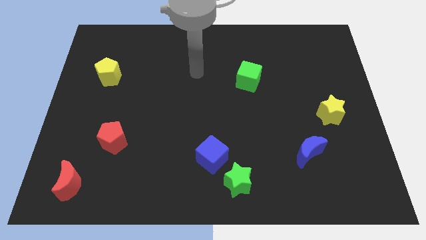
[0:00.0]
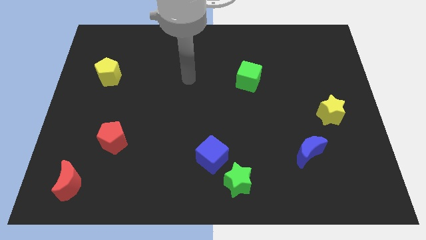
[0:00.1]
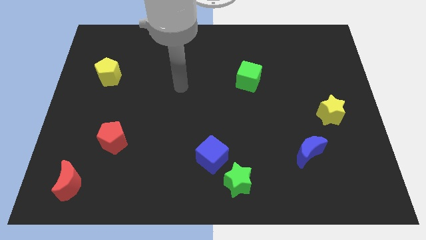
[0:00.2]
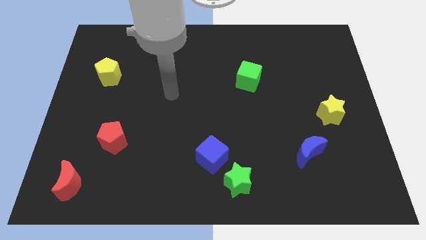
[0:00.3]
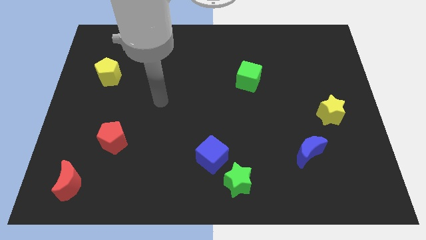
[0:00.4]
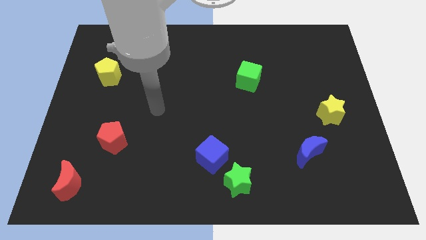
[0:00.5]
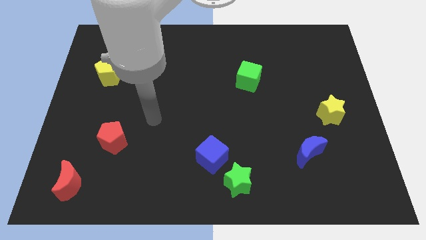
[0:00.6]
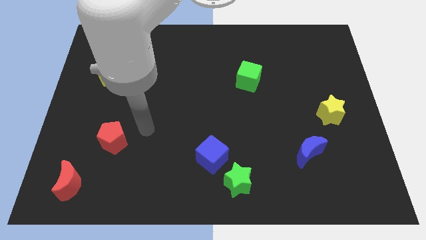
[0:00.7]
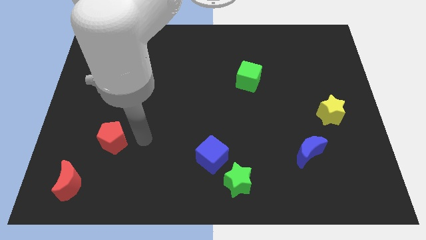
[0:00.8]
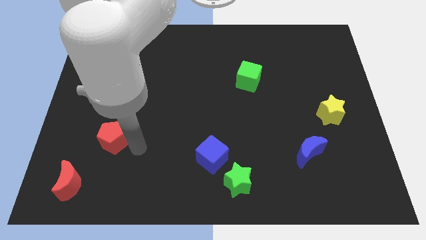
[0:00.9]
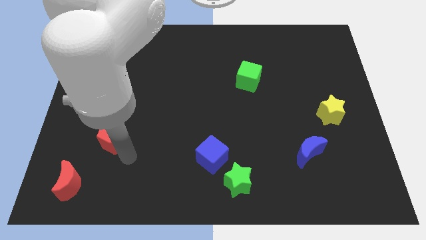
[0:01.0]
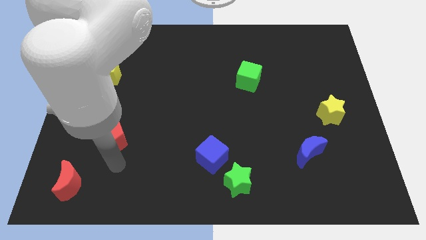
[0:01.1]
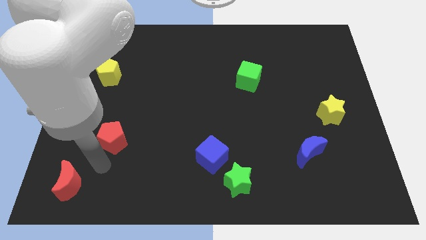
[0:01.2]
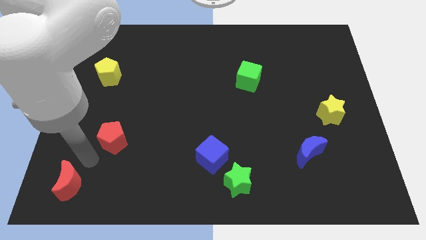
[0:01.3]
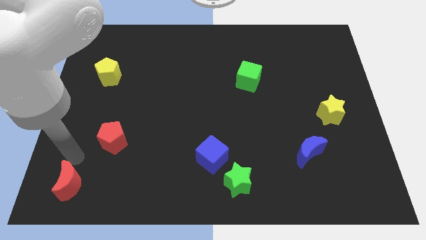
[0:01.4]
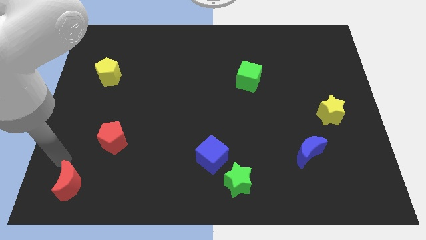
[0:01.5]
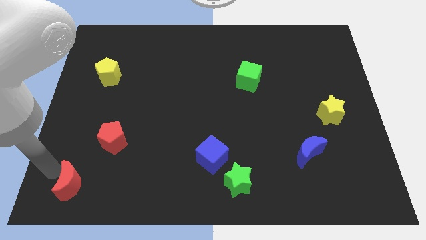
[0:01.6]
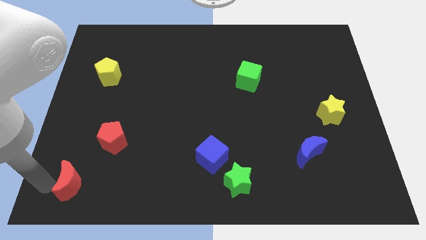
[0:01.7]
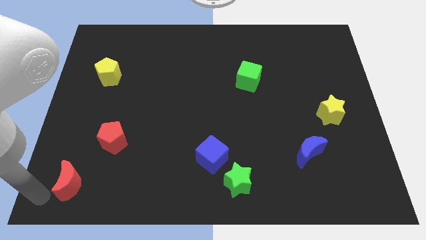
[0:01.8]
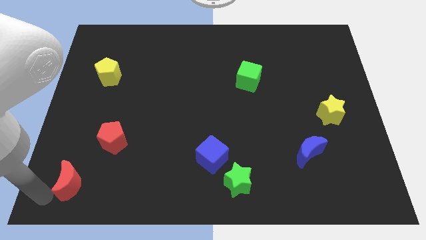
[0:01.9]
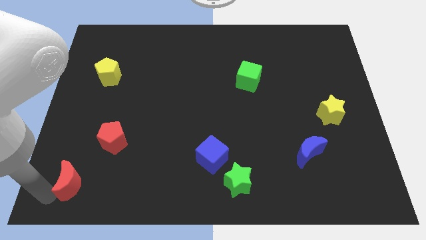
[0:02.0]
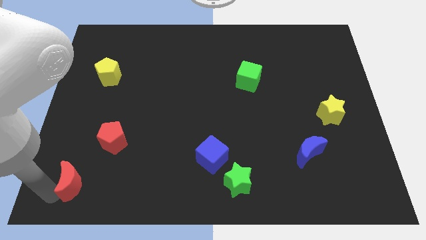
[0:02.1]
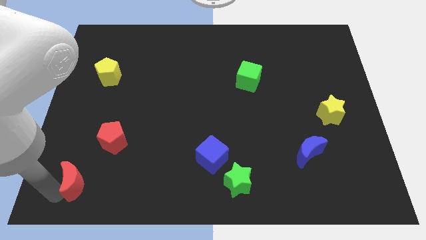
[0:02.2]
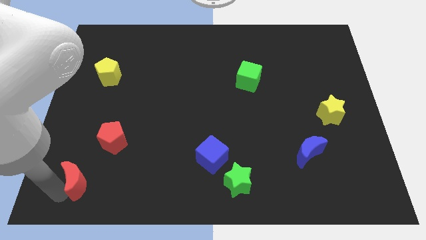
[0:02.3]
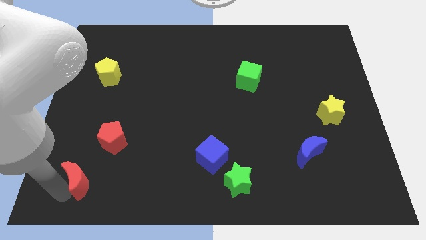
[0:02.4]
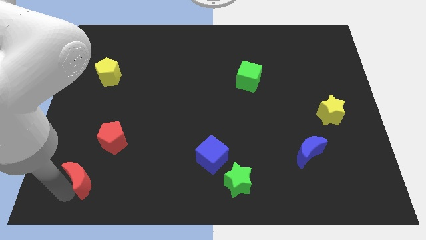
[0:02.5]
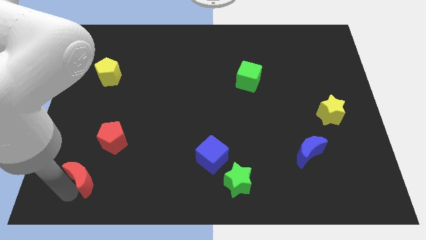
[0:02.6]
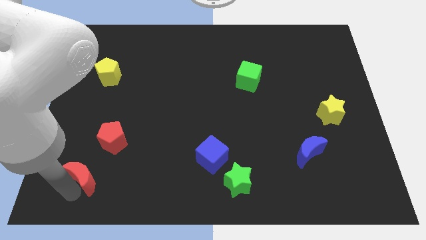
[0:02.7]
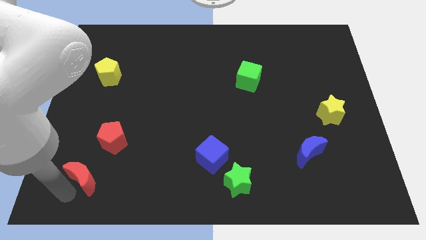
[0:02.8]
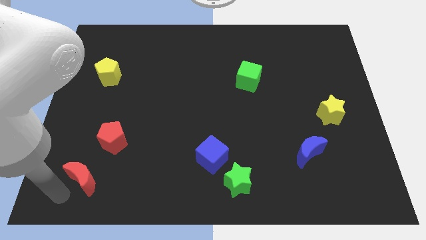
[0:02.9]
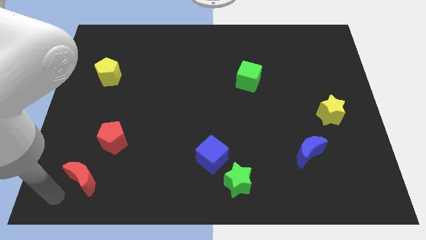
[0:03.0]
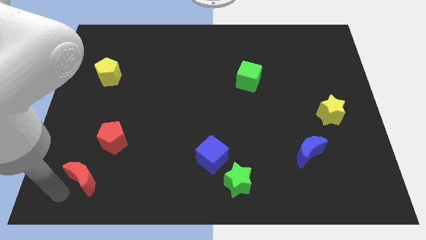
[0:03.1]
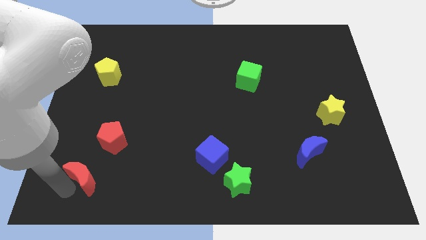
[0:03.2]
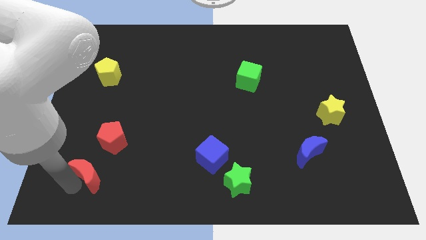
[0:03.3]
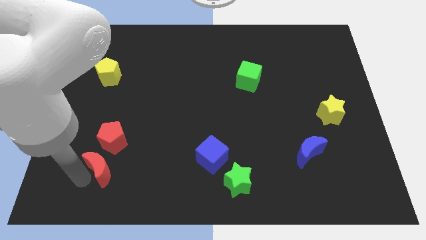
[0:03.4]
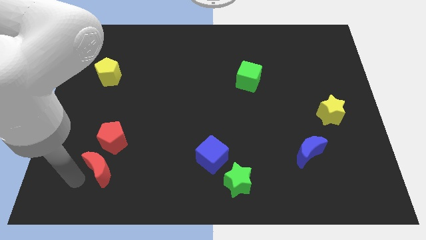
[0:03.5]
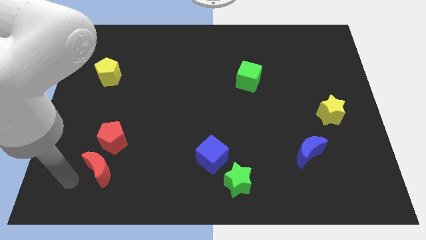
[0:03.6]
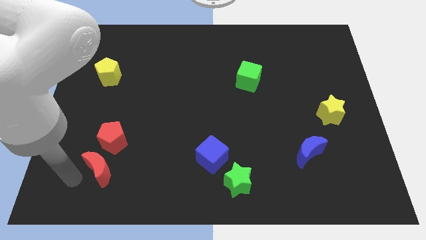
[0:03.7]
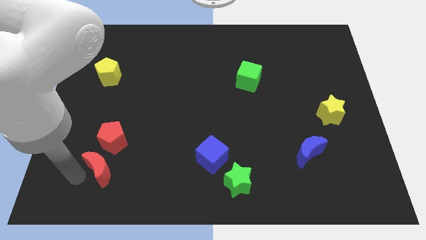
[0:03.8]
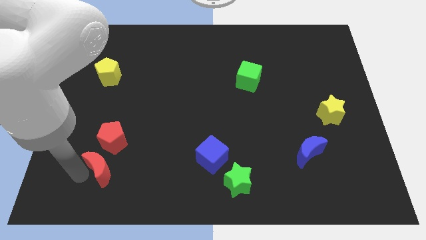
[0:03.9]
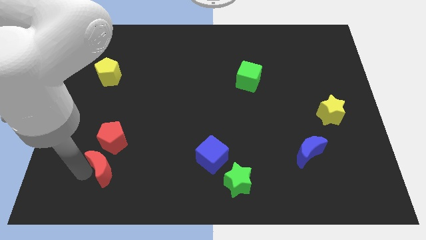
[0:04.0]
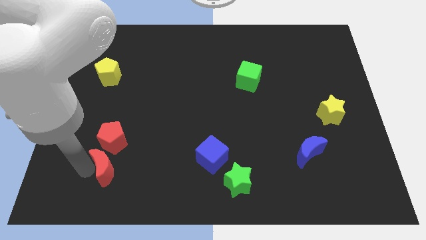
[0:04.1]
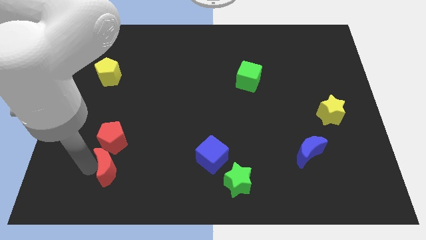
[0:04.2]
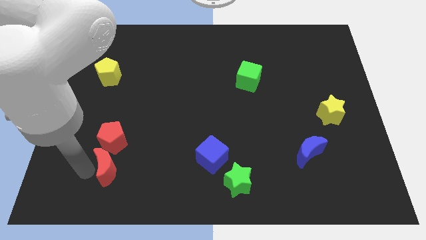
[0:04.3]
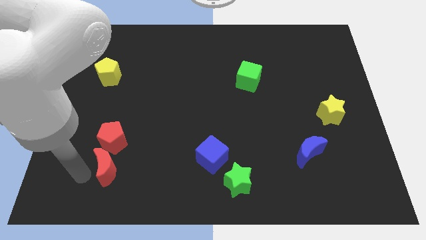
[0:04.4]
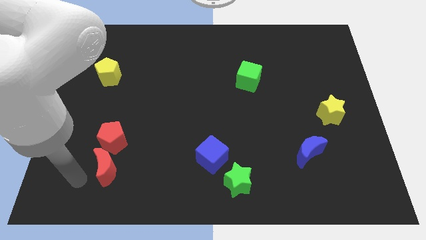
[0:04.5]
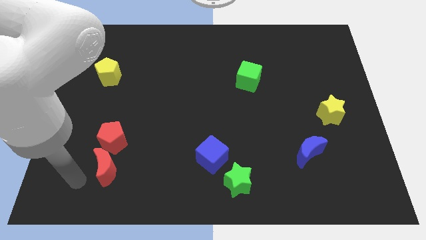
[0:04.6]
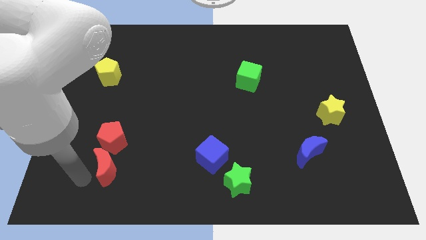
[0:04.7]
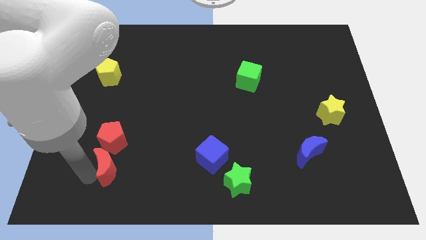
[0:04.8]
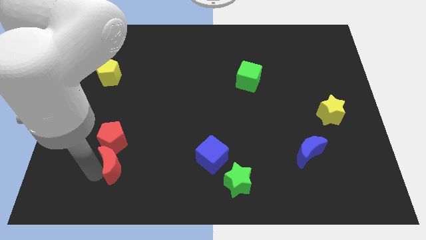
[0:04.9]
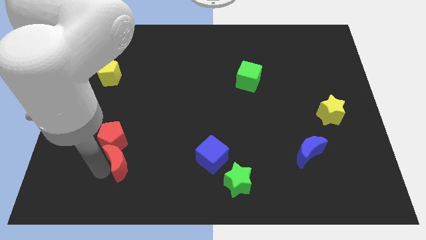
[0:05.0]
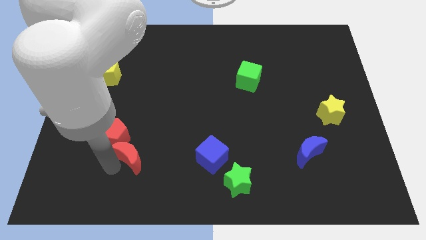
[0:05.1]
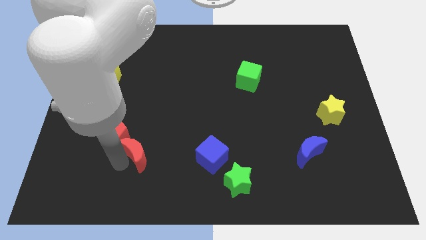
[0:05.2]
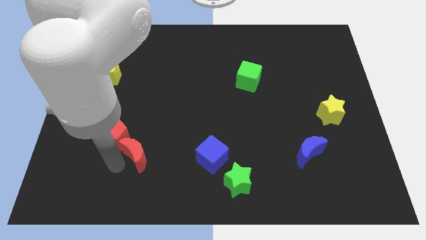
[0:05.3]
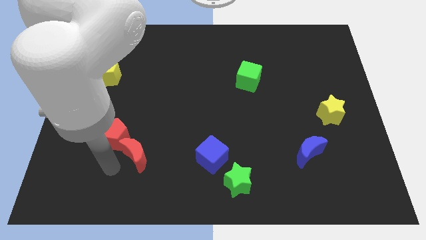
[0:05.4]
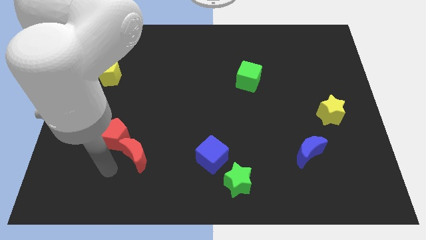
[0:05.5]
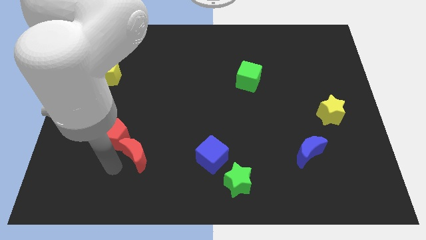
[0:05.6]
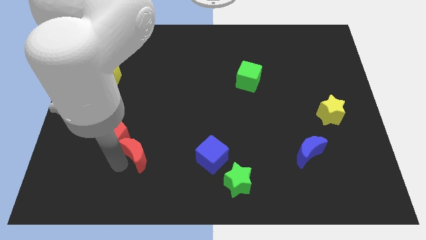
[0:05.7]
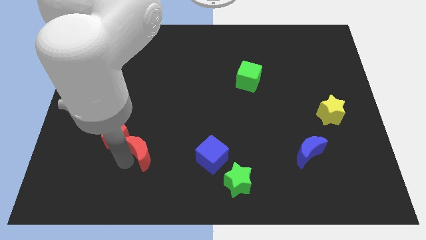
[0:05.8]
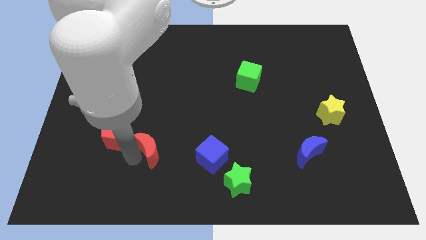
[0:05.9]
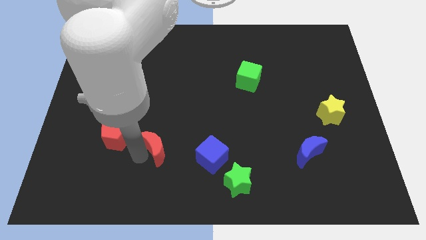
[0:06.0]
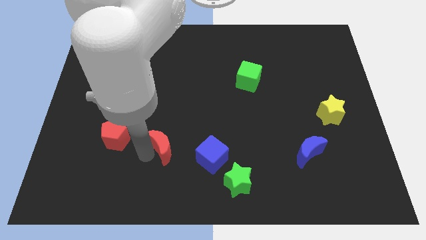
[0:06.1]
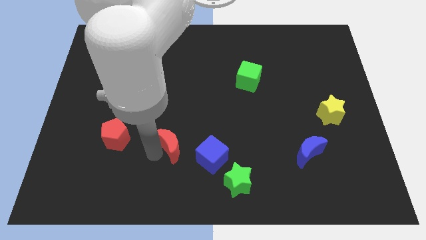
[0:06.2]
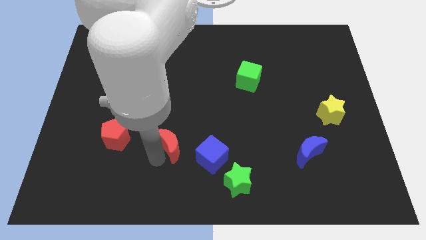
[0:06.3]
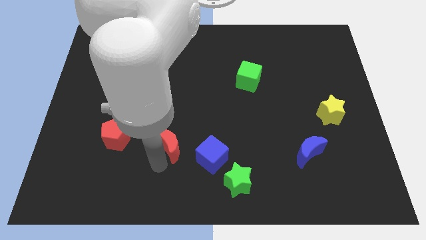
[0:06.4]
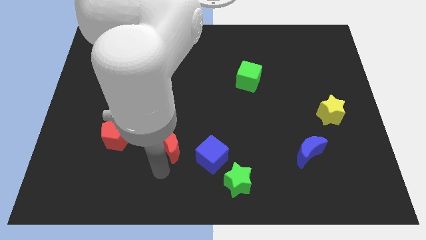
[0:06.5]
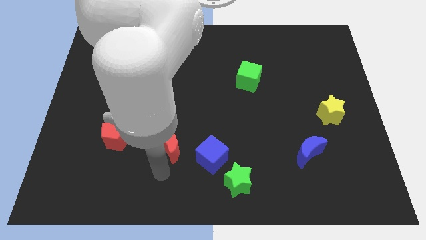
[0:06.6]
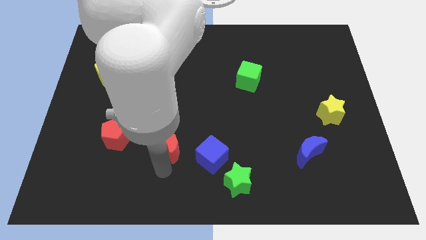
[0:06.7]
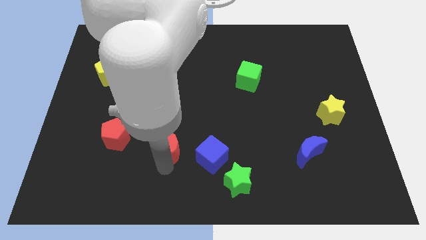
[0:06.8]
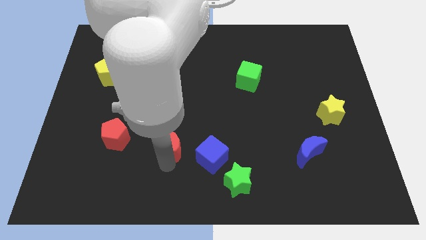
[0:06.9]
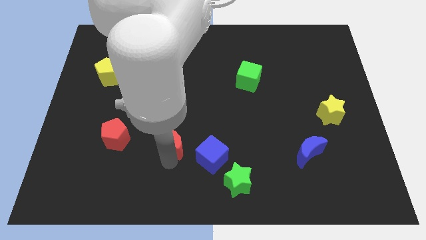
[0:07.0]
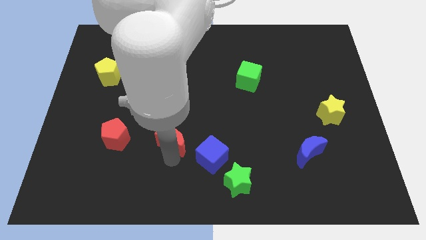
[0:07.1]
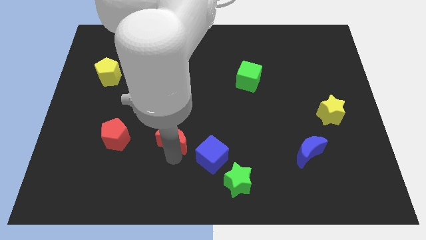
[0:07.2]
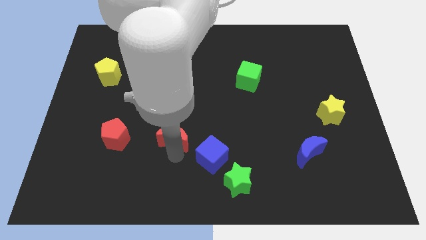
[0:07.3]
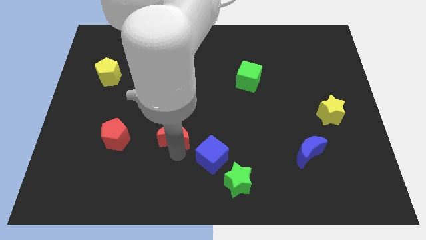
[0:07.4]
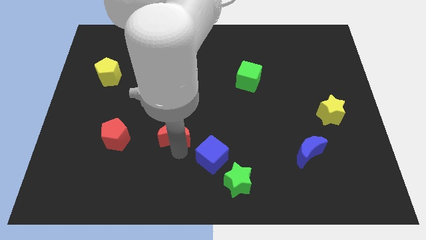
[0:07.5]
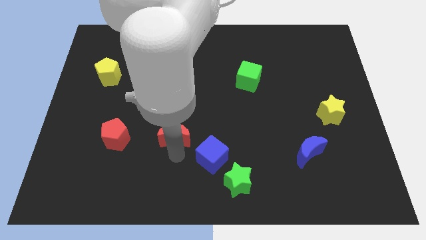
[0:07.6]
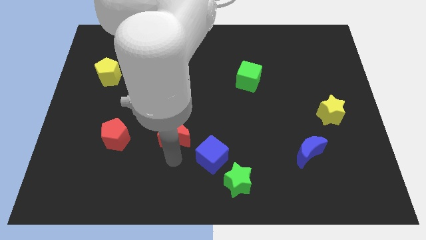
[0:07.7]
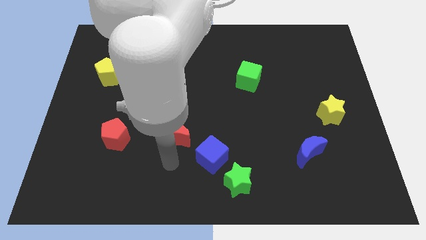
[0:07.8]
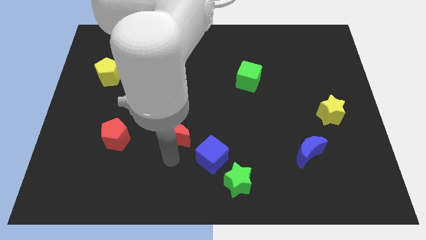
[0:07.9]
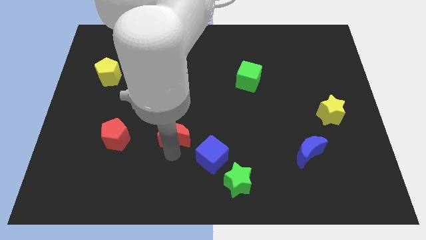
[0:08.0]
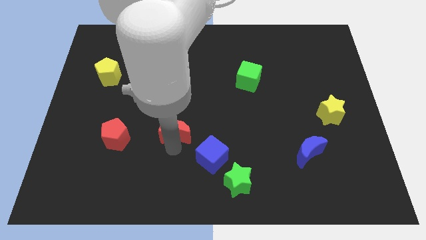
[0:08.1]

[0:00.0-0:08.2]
push the red moon to the middle
